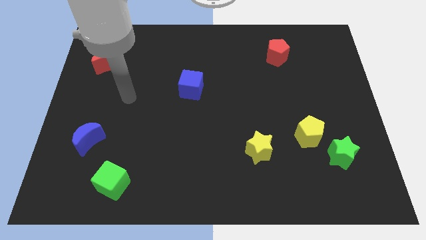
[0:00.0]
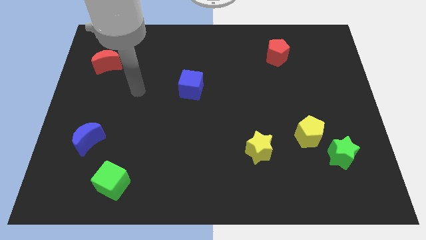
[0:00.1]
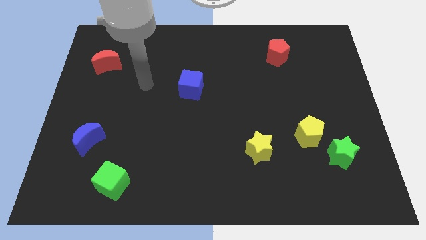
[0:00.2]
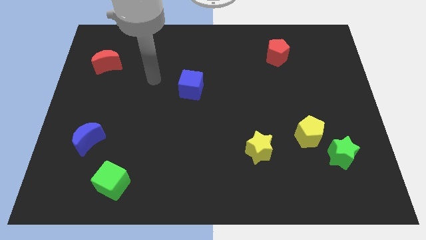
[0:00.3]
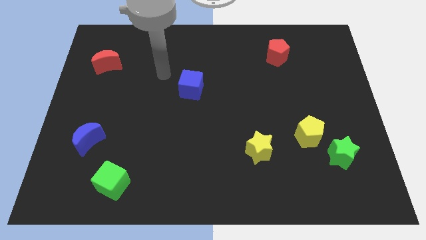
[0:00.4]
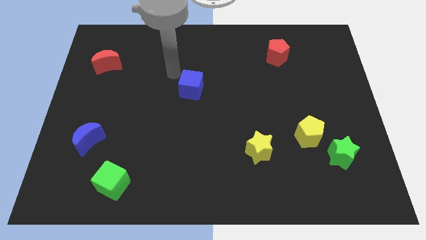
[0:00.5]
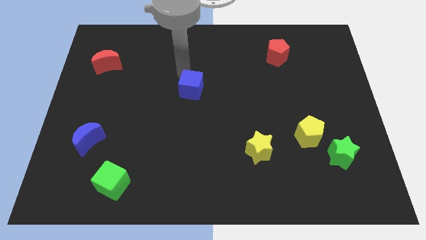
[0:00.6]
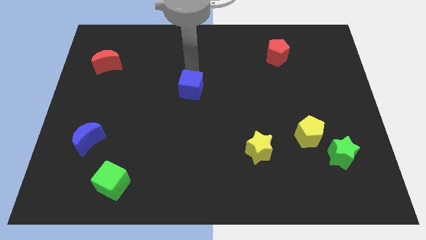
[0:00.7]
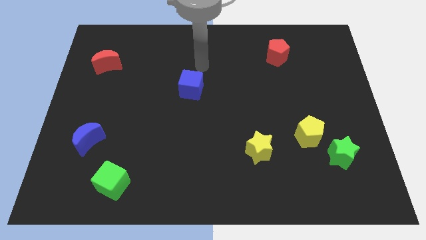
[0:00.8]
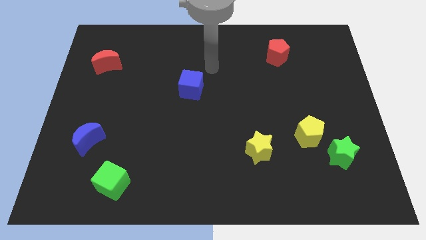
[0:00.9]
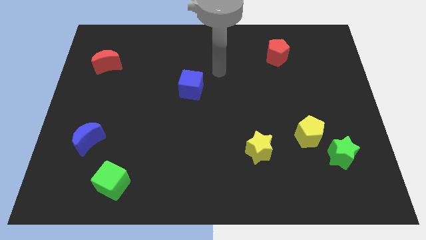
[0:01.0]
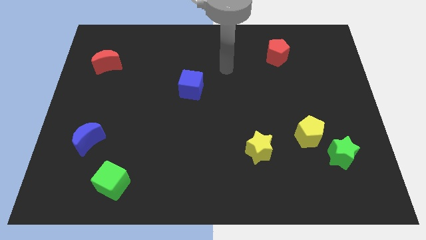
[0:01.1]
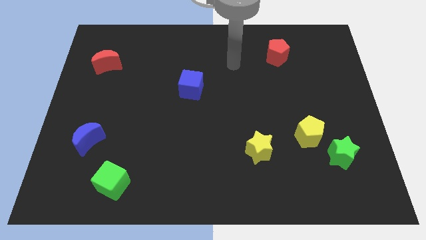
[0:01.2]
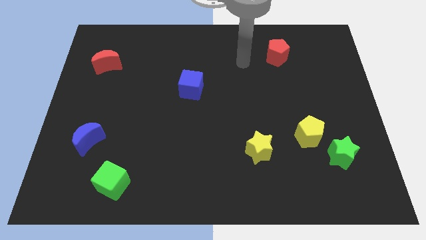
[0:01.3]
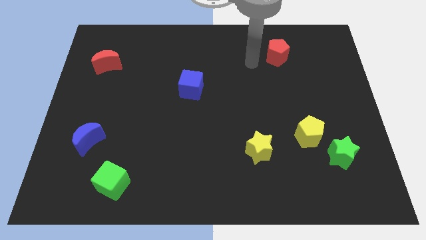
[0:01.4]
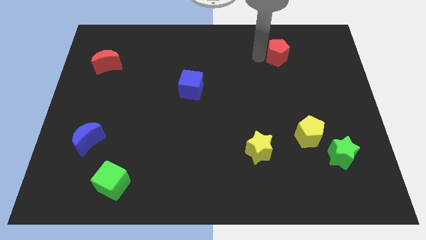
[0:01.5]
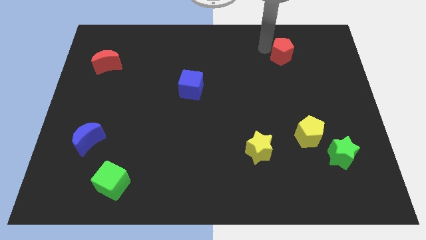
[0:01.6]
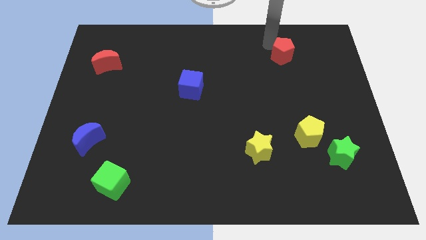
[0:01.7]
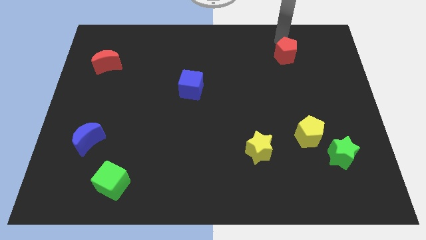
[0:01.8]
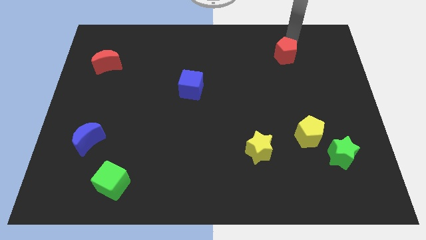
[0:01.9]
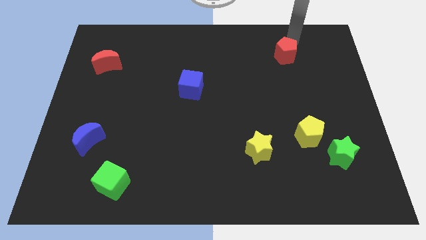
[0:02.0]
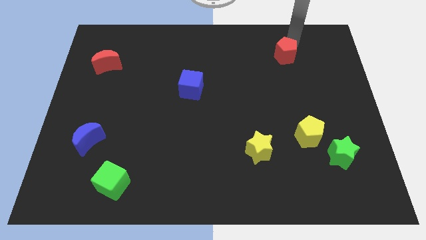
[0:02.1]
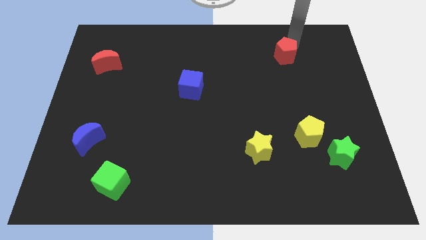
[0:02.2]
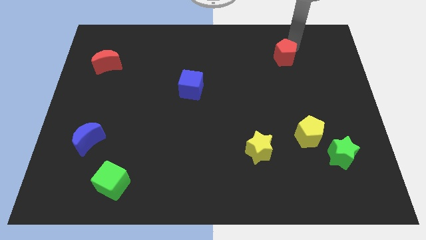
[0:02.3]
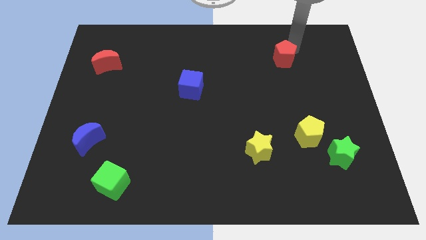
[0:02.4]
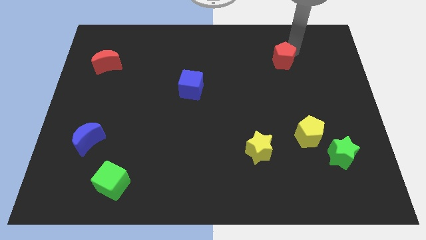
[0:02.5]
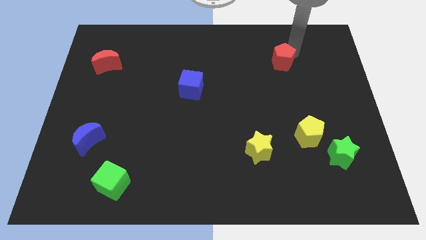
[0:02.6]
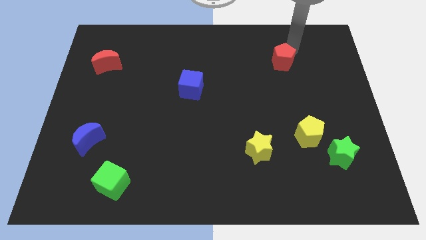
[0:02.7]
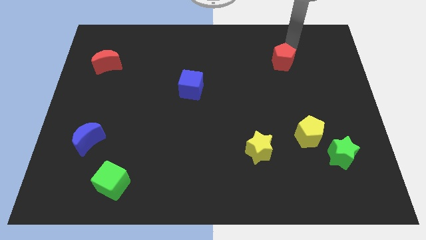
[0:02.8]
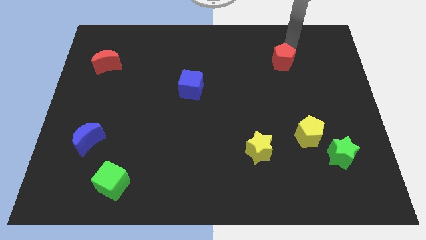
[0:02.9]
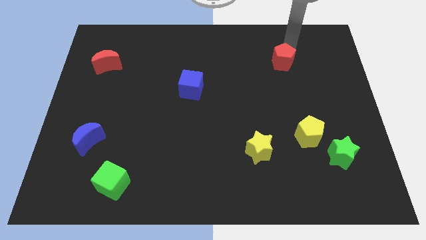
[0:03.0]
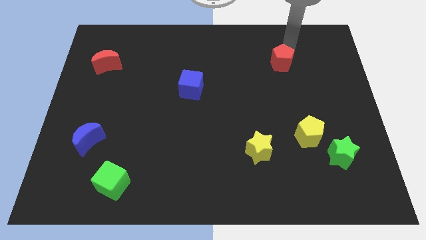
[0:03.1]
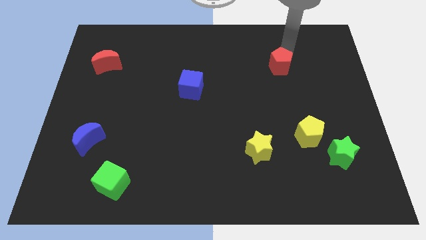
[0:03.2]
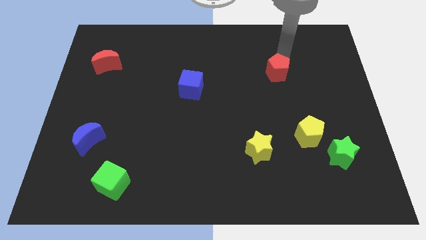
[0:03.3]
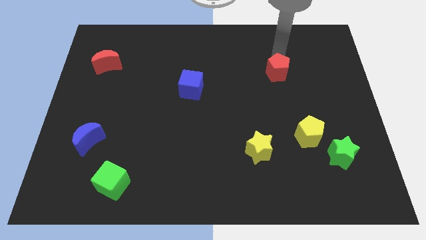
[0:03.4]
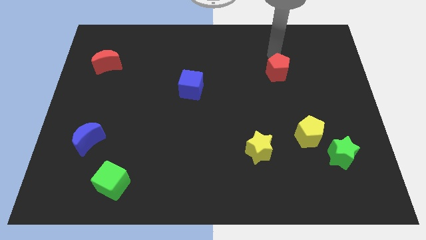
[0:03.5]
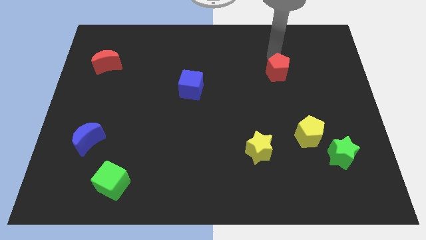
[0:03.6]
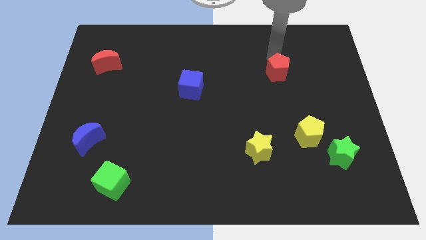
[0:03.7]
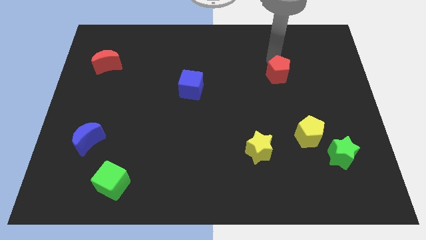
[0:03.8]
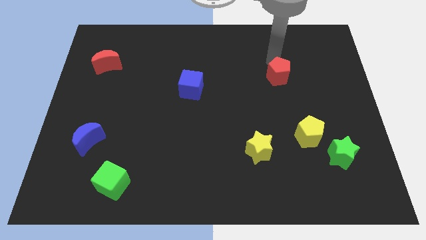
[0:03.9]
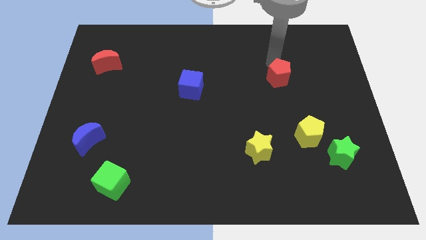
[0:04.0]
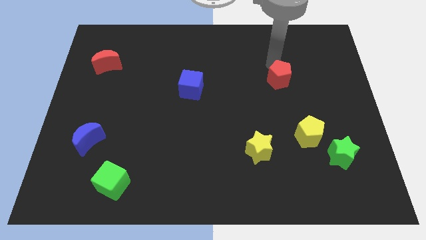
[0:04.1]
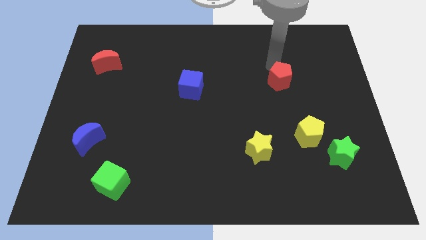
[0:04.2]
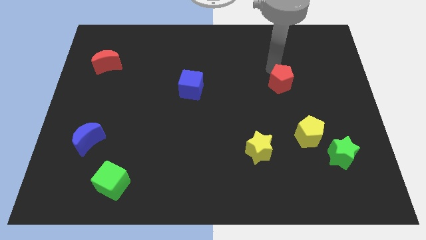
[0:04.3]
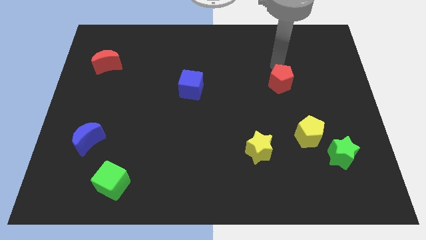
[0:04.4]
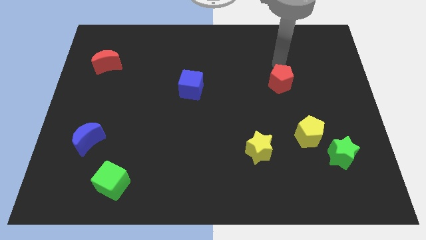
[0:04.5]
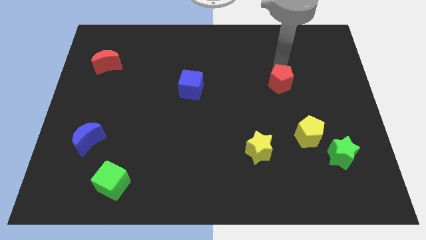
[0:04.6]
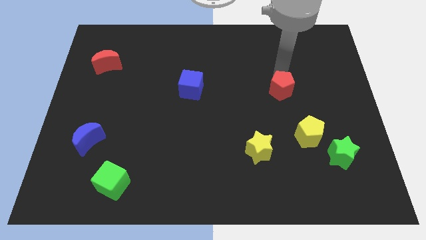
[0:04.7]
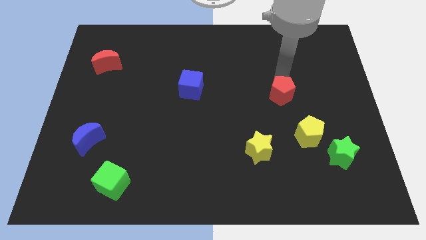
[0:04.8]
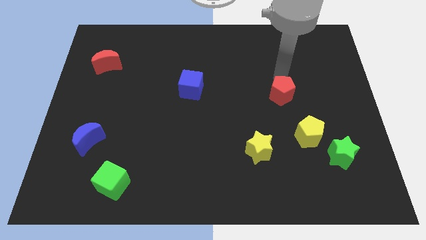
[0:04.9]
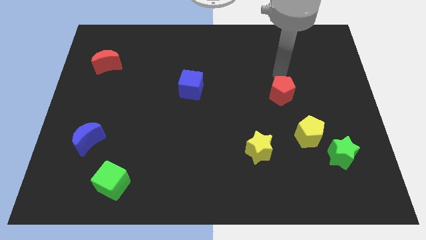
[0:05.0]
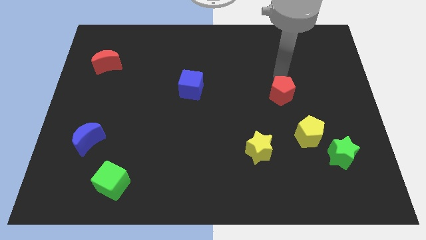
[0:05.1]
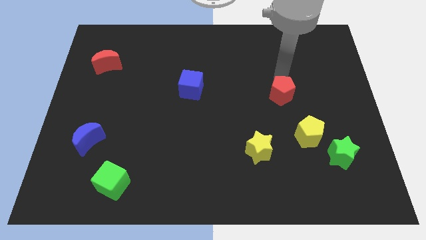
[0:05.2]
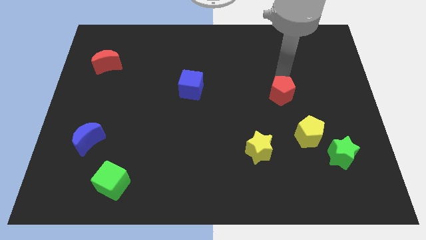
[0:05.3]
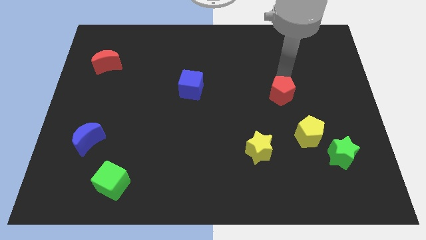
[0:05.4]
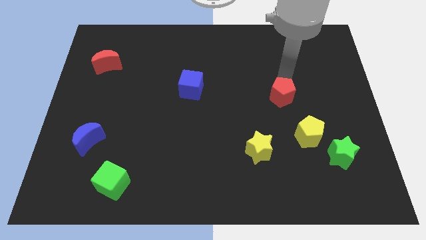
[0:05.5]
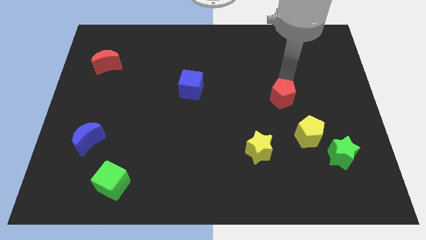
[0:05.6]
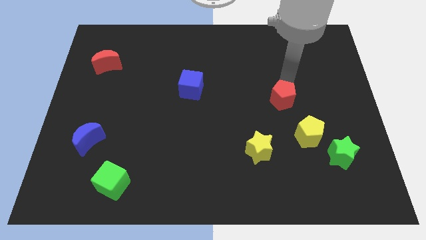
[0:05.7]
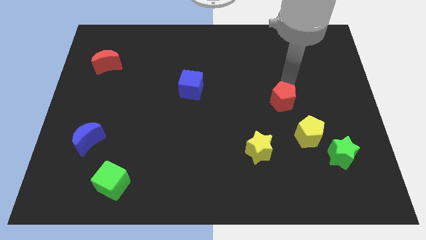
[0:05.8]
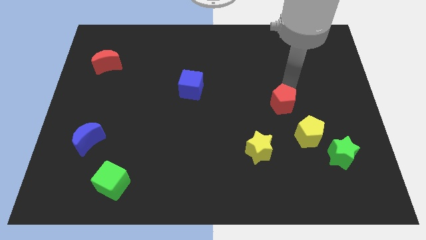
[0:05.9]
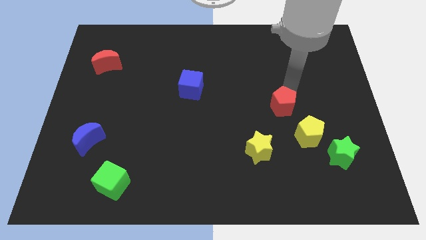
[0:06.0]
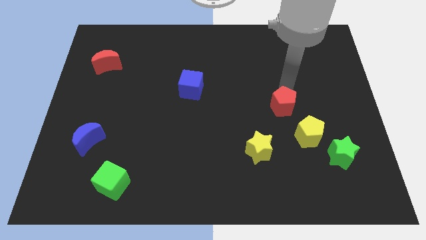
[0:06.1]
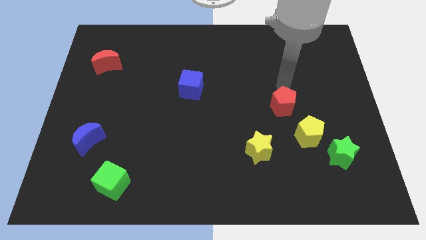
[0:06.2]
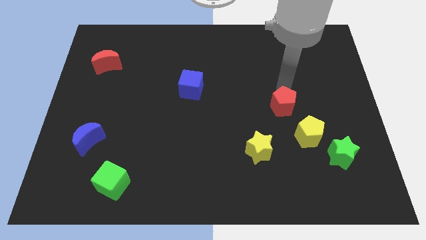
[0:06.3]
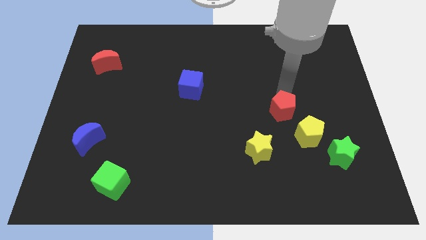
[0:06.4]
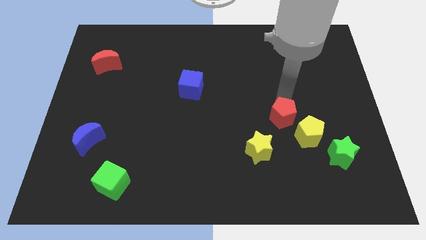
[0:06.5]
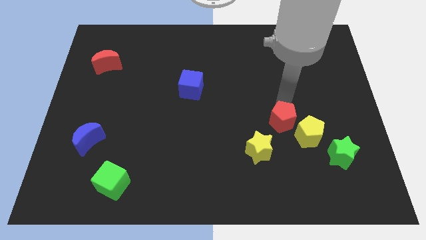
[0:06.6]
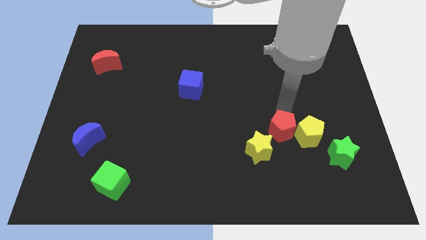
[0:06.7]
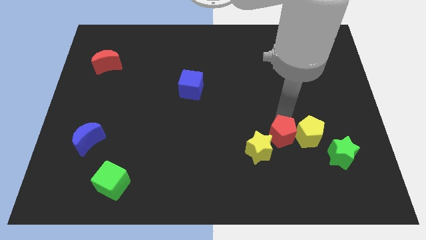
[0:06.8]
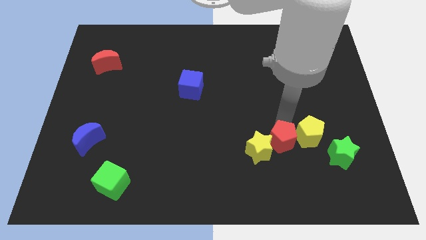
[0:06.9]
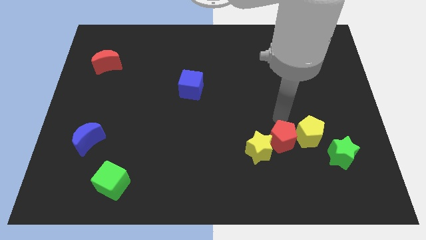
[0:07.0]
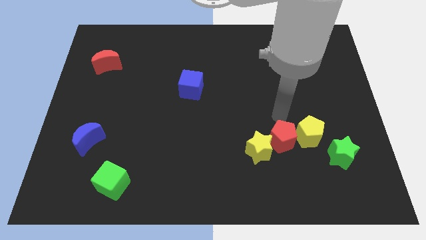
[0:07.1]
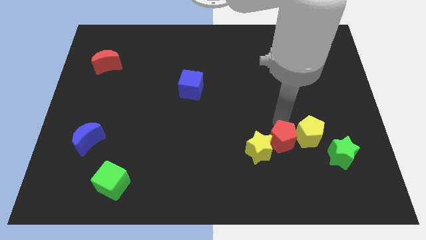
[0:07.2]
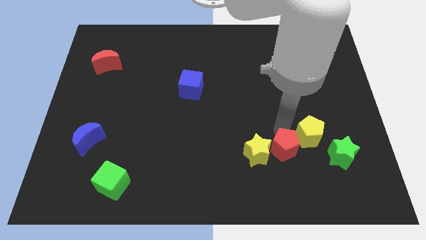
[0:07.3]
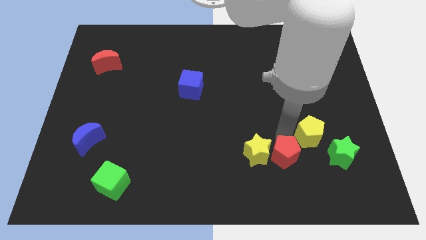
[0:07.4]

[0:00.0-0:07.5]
put the red pentagon to the bottom right side of the yellow star

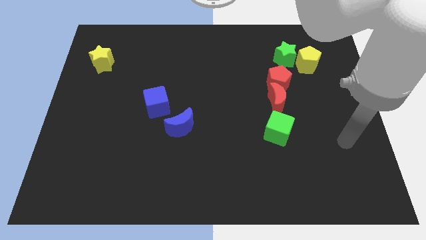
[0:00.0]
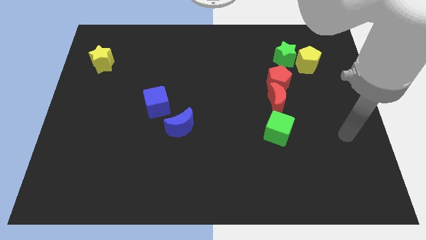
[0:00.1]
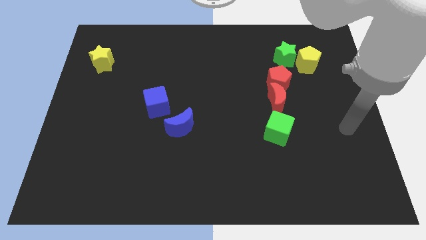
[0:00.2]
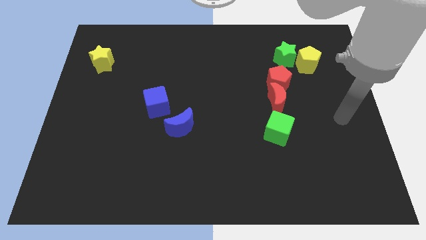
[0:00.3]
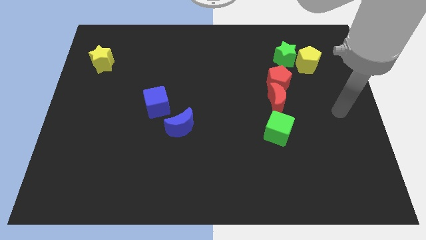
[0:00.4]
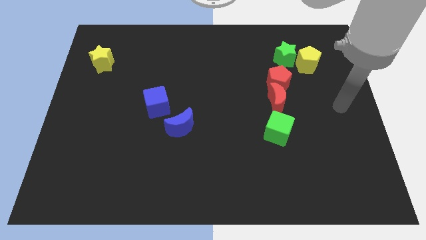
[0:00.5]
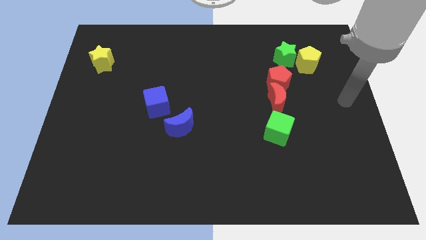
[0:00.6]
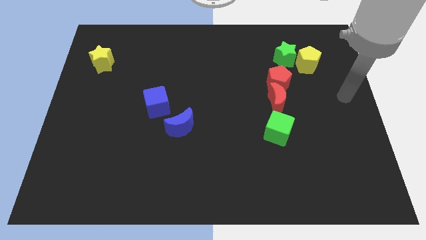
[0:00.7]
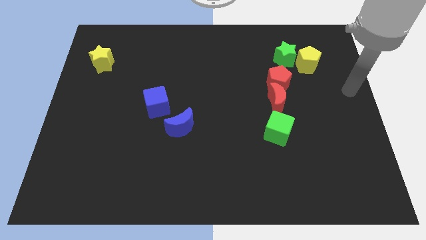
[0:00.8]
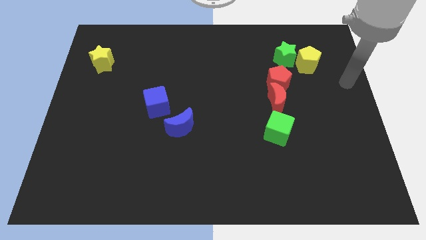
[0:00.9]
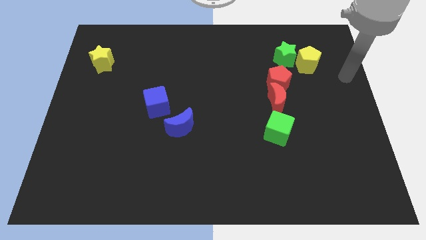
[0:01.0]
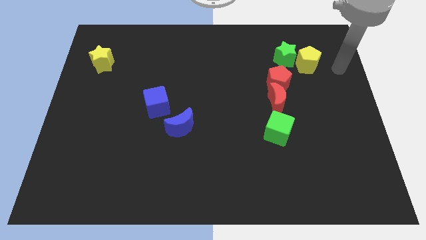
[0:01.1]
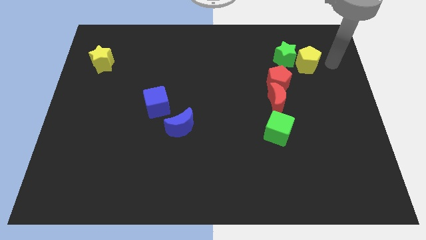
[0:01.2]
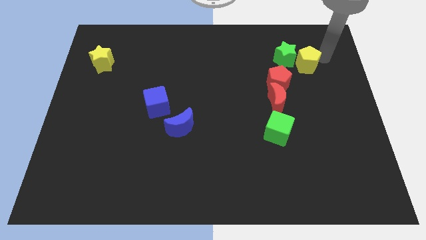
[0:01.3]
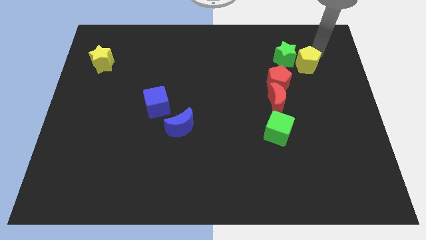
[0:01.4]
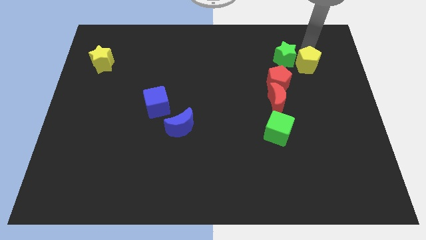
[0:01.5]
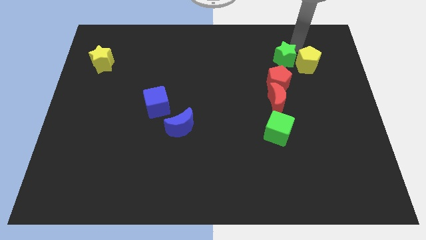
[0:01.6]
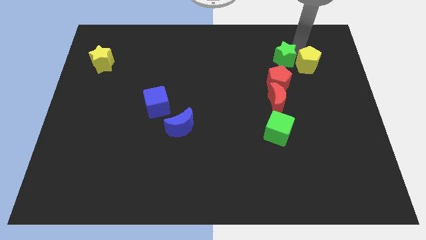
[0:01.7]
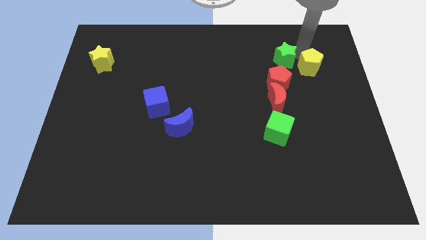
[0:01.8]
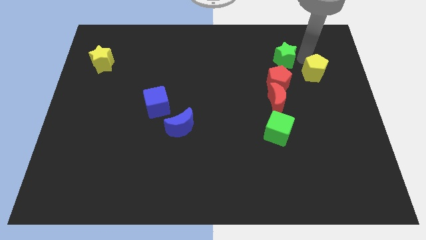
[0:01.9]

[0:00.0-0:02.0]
put the yellow pentagon right of the red pentagon
